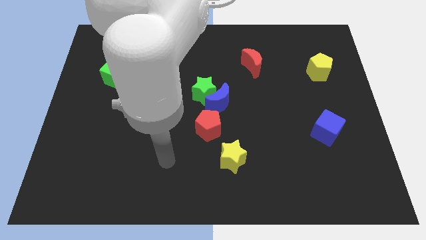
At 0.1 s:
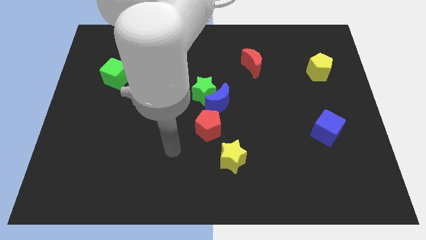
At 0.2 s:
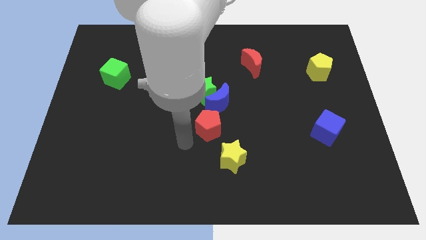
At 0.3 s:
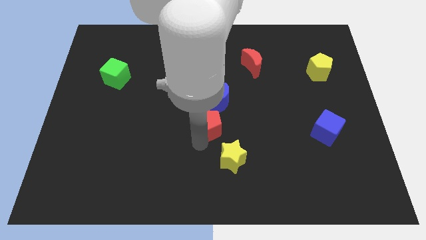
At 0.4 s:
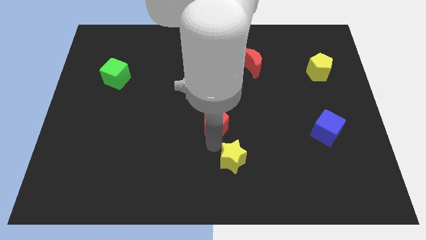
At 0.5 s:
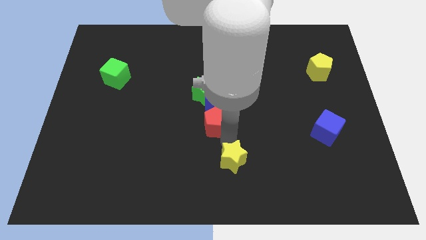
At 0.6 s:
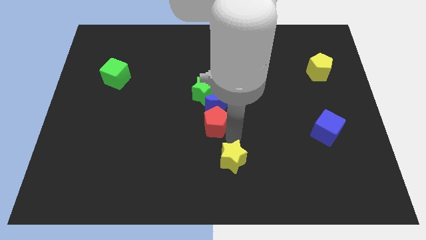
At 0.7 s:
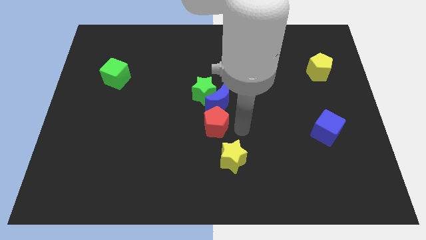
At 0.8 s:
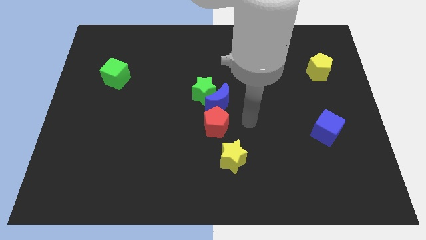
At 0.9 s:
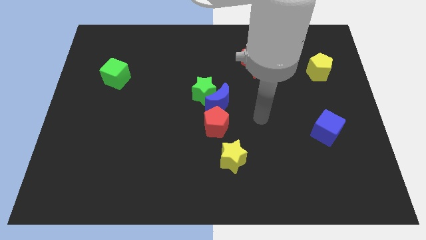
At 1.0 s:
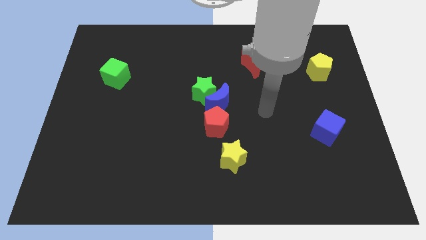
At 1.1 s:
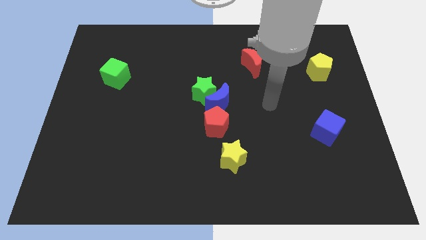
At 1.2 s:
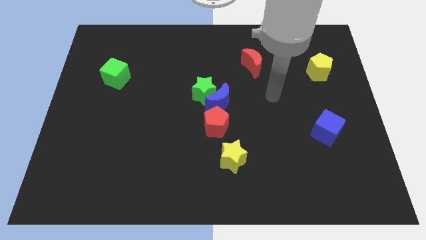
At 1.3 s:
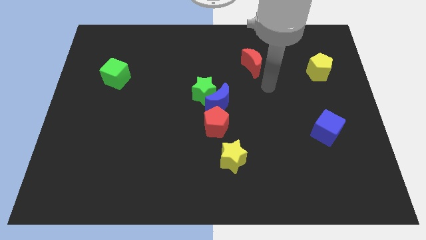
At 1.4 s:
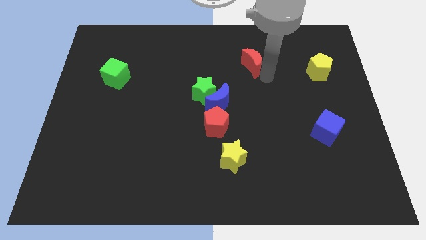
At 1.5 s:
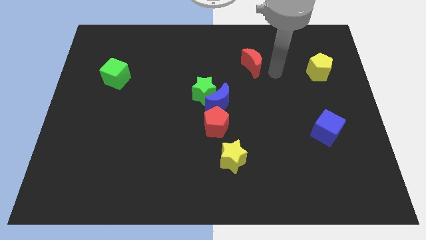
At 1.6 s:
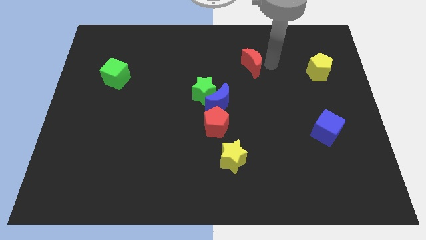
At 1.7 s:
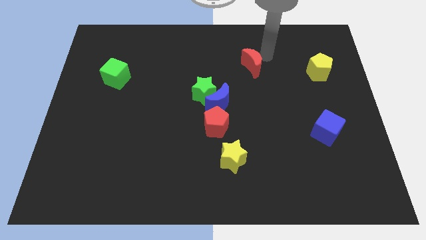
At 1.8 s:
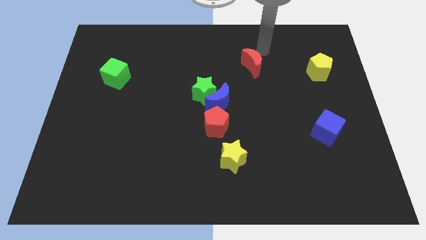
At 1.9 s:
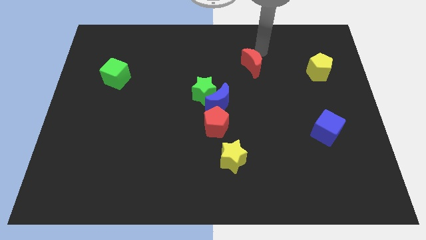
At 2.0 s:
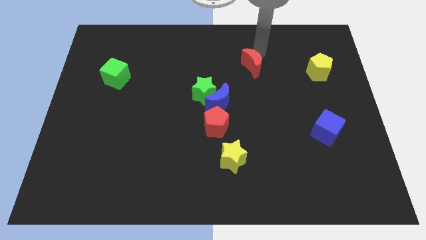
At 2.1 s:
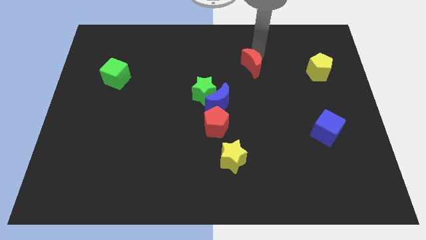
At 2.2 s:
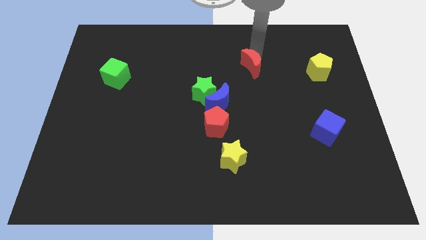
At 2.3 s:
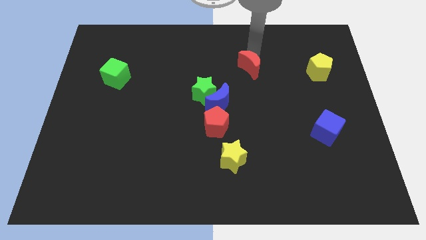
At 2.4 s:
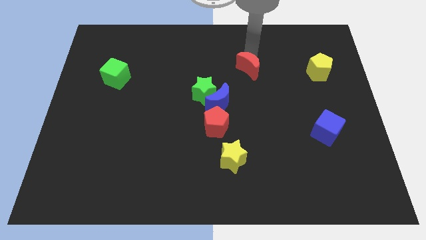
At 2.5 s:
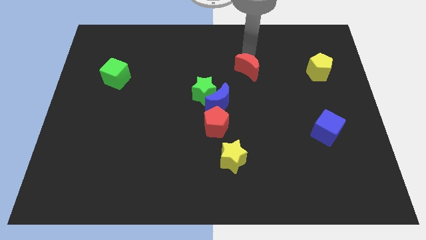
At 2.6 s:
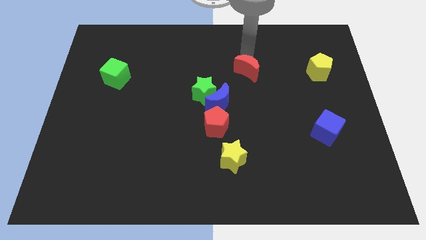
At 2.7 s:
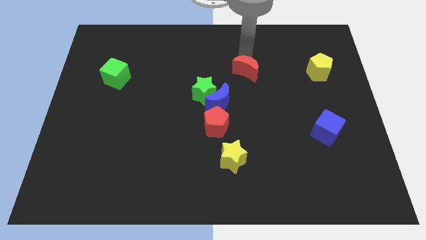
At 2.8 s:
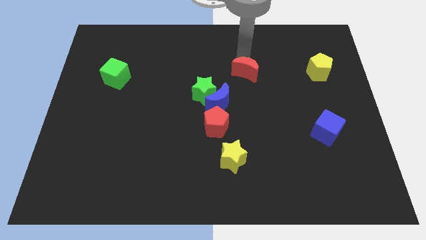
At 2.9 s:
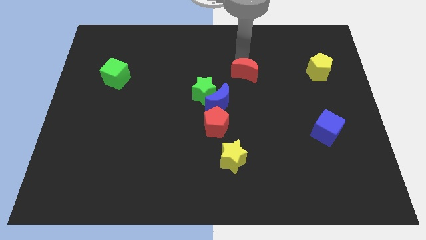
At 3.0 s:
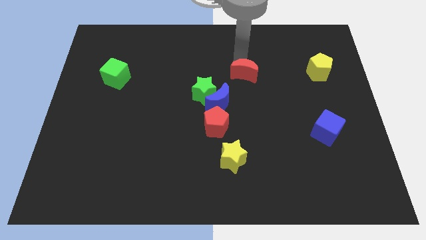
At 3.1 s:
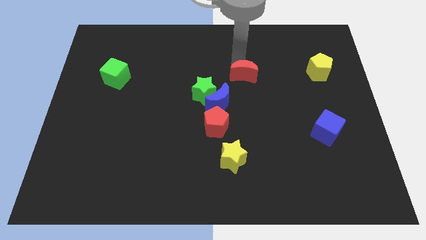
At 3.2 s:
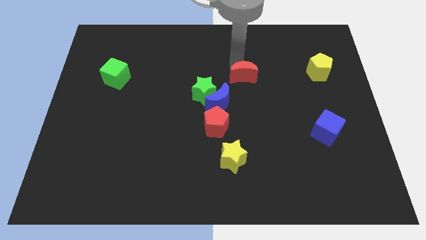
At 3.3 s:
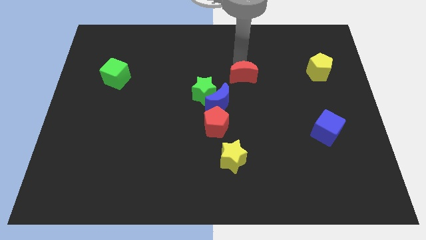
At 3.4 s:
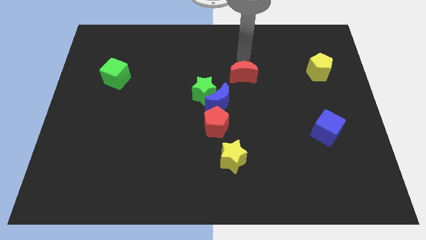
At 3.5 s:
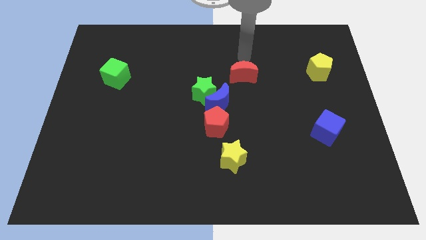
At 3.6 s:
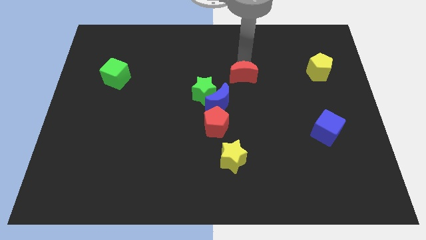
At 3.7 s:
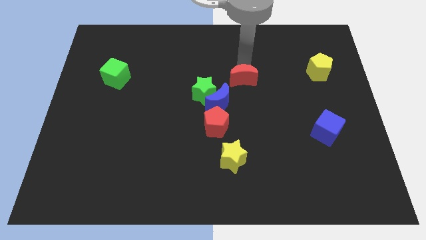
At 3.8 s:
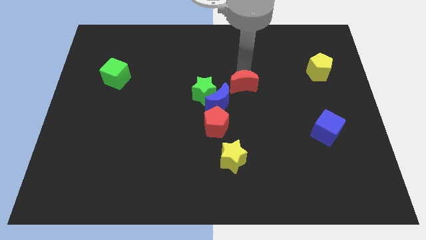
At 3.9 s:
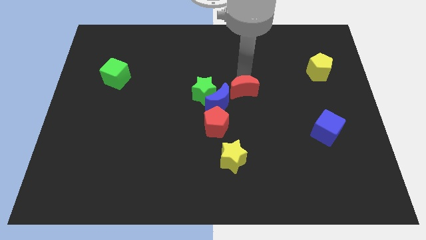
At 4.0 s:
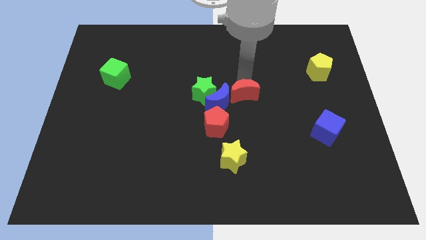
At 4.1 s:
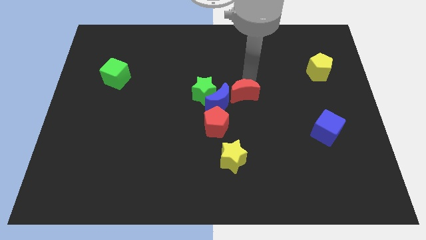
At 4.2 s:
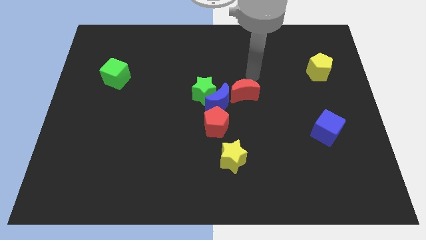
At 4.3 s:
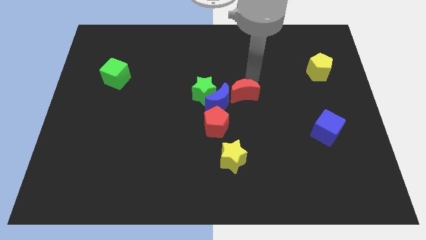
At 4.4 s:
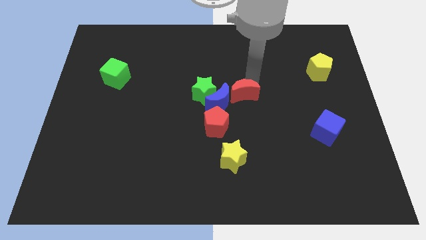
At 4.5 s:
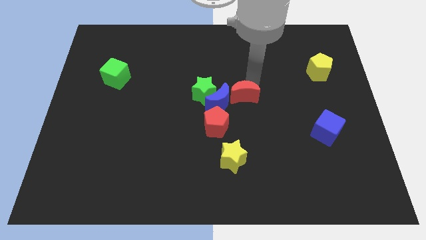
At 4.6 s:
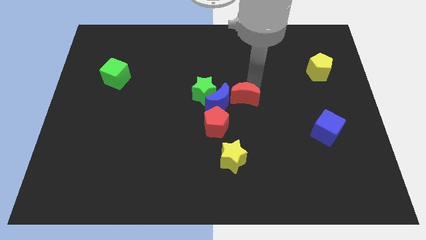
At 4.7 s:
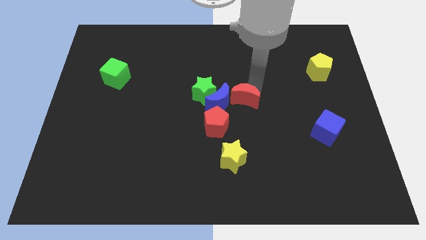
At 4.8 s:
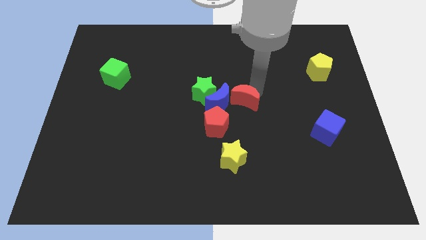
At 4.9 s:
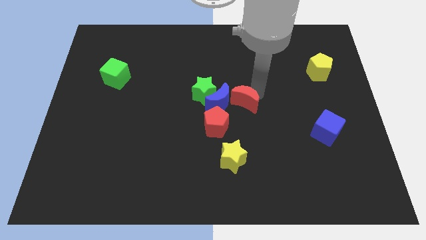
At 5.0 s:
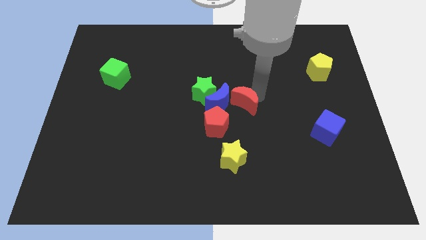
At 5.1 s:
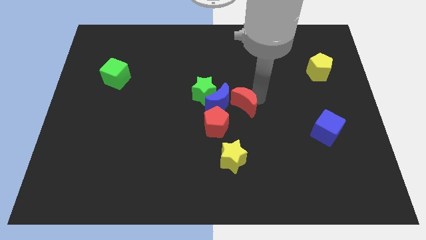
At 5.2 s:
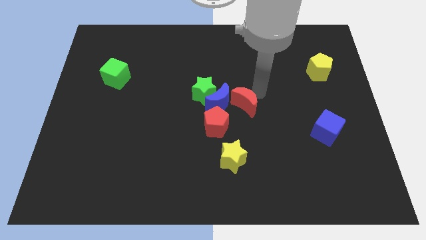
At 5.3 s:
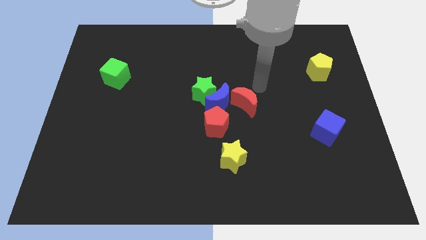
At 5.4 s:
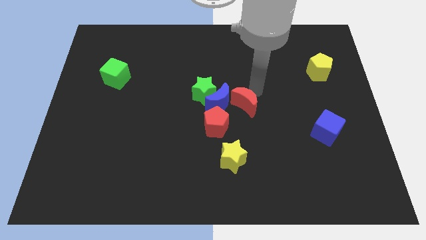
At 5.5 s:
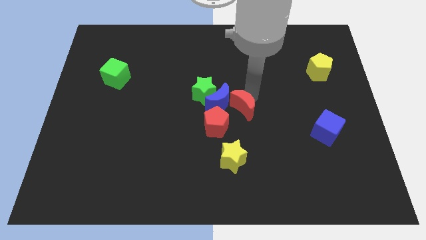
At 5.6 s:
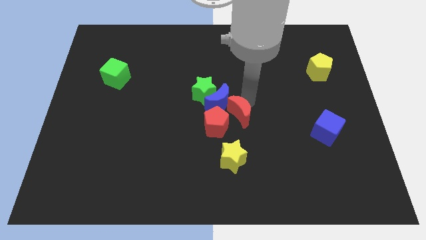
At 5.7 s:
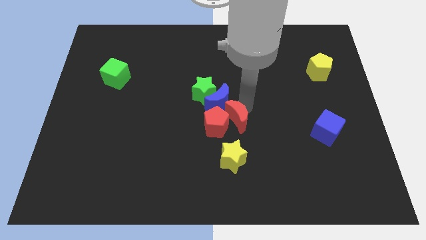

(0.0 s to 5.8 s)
move the red moon close to the red pentagon

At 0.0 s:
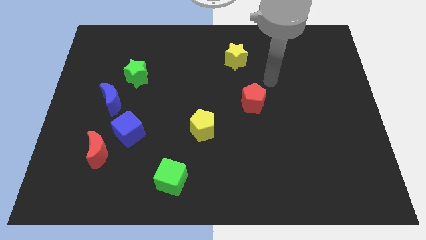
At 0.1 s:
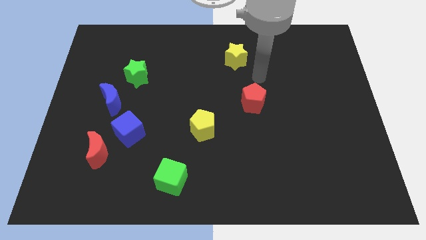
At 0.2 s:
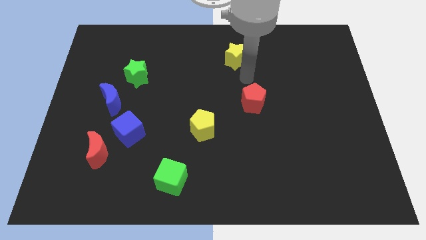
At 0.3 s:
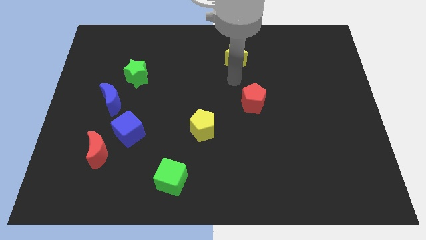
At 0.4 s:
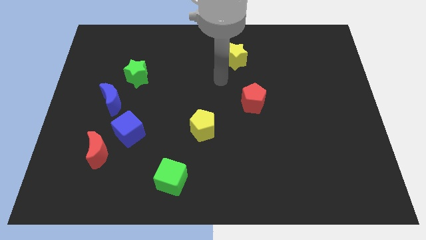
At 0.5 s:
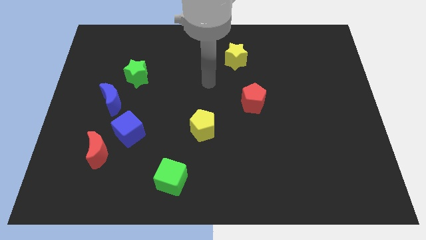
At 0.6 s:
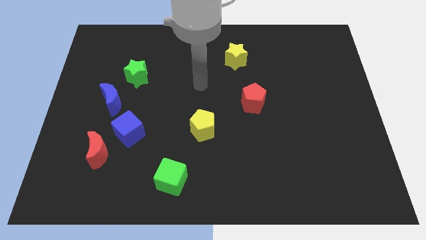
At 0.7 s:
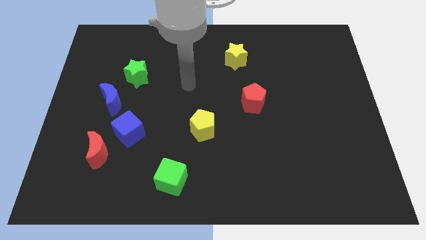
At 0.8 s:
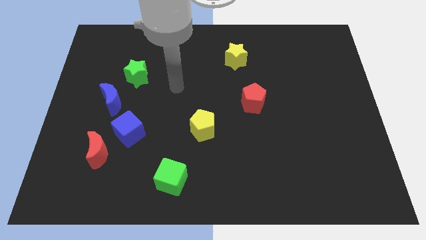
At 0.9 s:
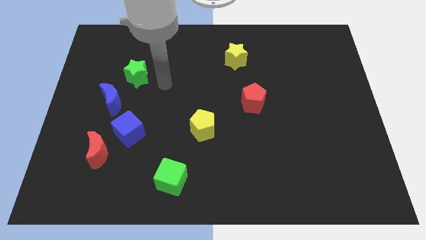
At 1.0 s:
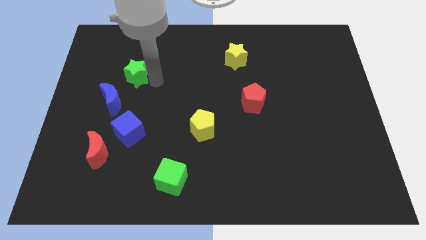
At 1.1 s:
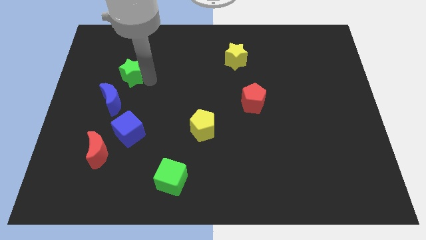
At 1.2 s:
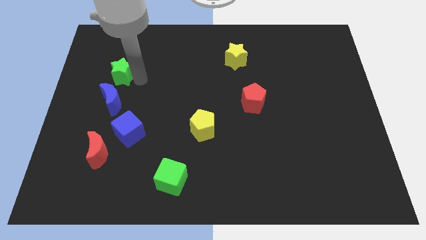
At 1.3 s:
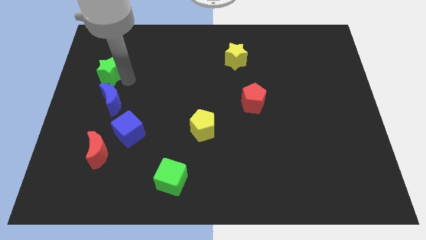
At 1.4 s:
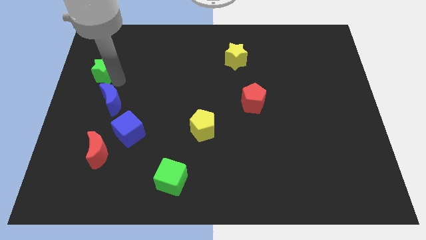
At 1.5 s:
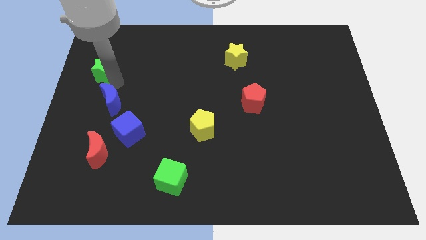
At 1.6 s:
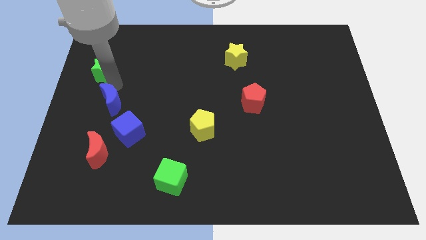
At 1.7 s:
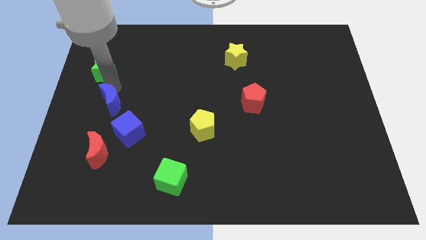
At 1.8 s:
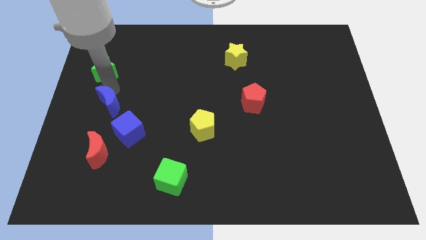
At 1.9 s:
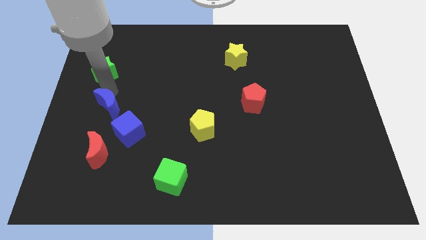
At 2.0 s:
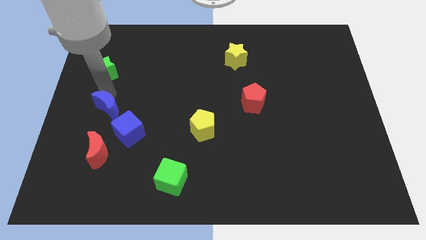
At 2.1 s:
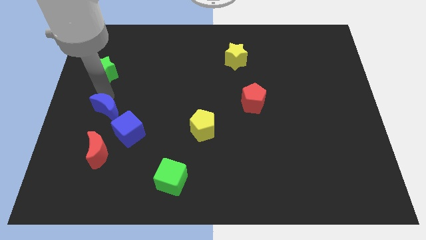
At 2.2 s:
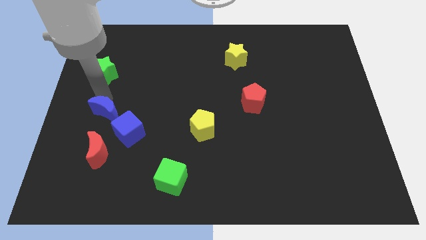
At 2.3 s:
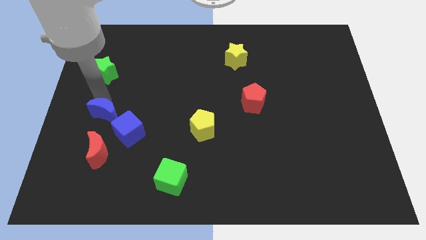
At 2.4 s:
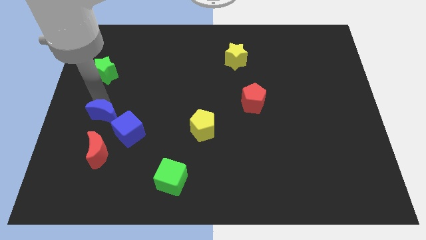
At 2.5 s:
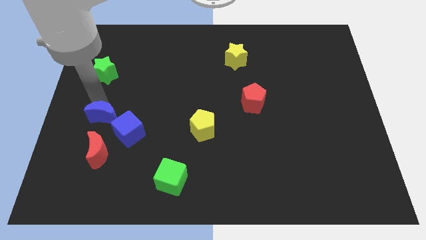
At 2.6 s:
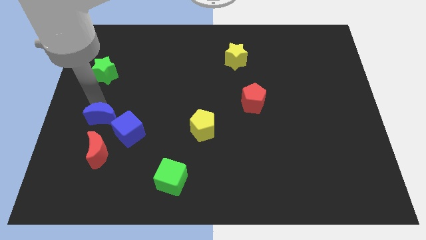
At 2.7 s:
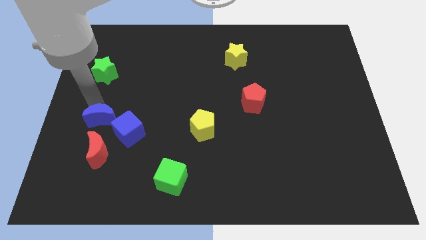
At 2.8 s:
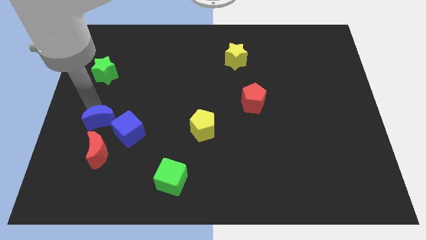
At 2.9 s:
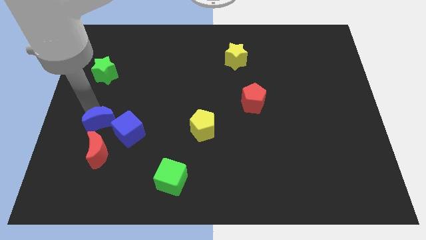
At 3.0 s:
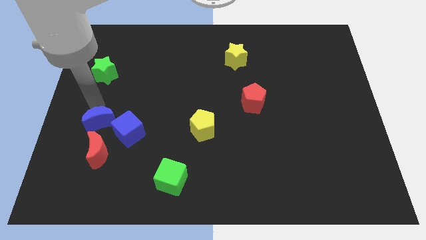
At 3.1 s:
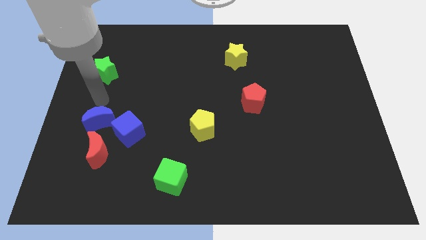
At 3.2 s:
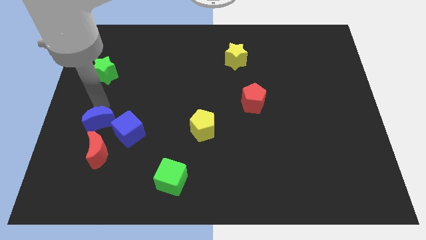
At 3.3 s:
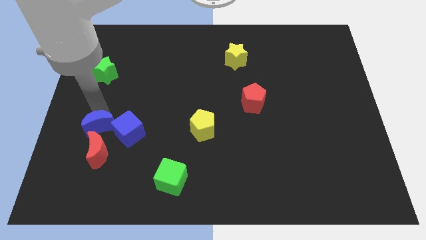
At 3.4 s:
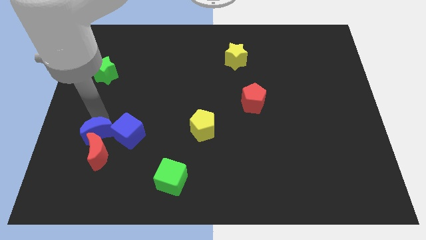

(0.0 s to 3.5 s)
push the blue moon towards the red moon
